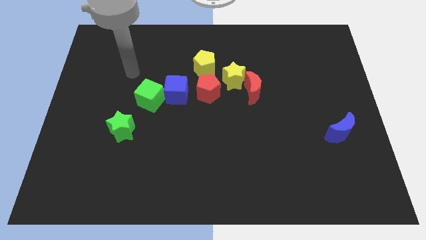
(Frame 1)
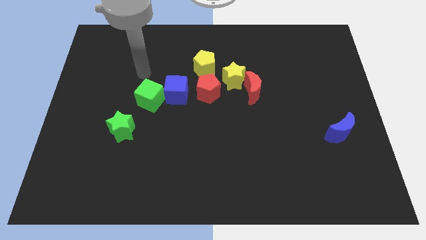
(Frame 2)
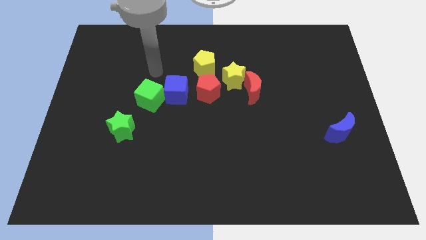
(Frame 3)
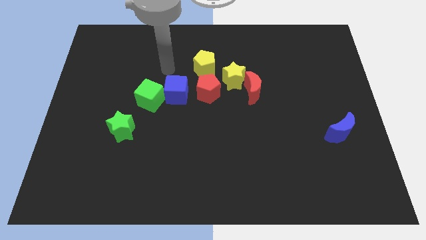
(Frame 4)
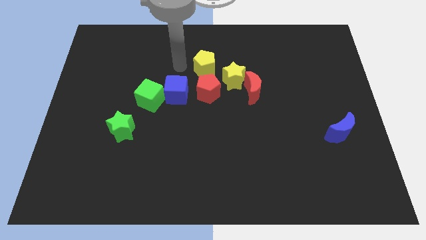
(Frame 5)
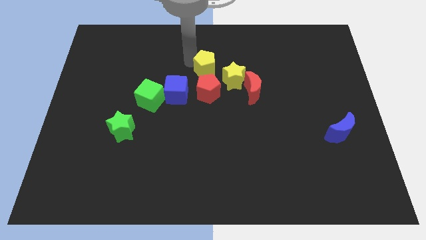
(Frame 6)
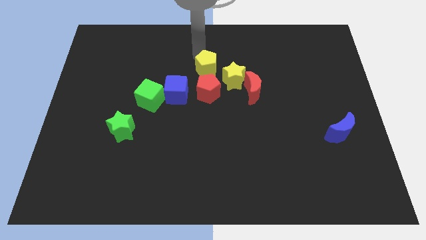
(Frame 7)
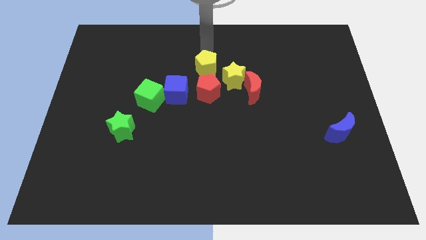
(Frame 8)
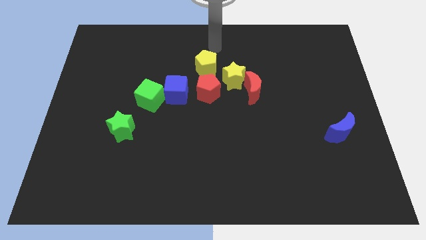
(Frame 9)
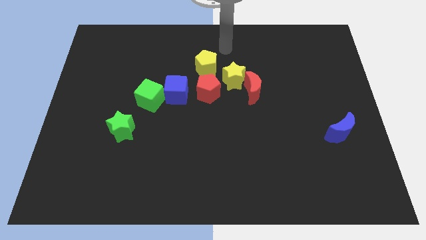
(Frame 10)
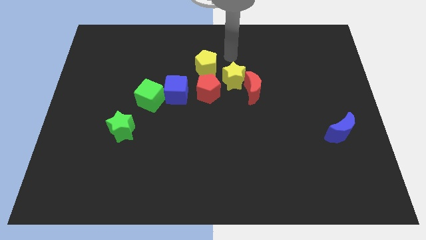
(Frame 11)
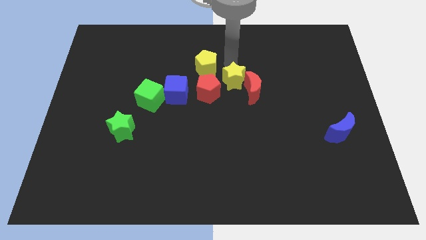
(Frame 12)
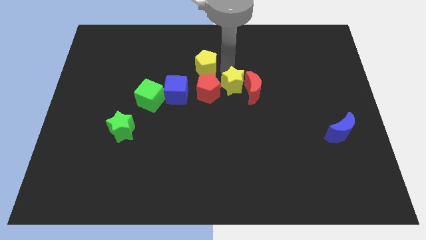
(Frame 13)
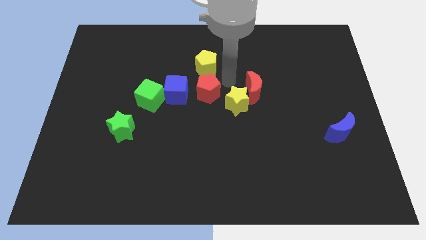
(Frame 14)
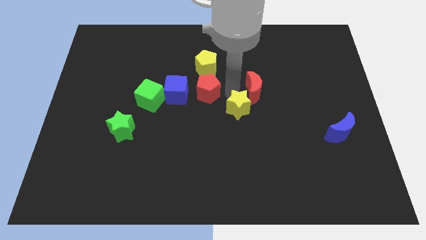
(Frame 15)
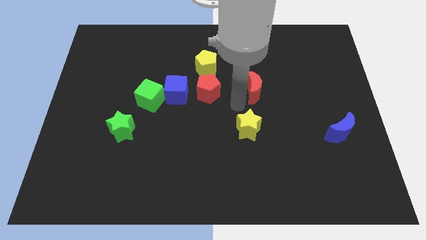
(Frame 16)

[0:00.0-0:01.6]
pull the red moon apart from the yellow star

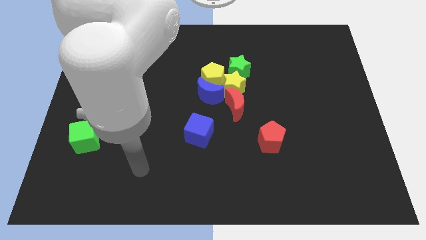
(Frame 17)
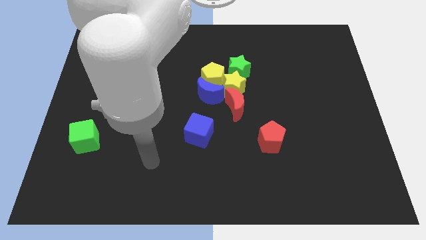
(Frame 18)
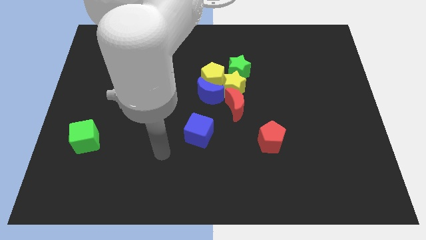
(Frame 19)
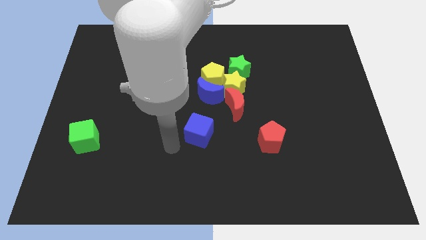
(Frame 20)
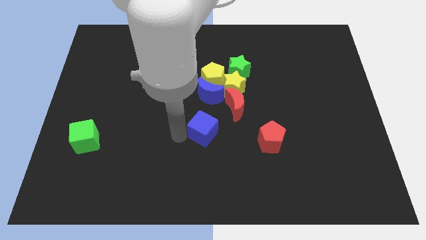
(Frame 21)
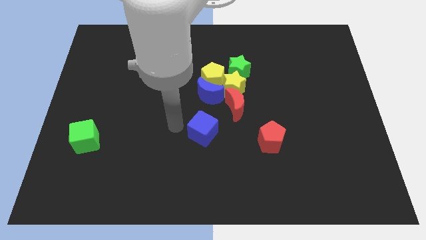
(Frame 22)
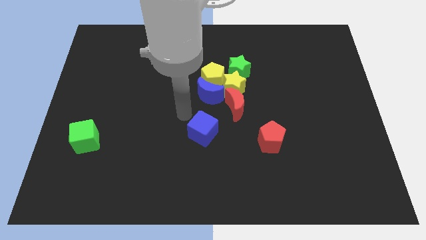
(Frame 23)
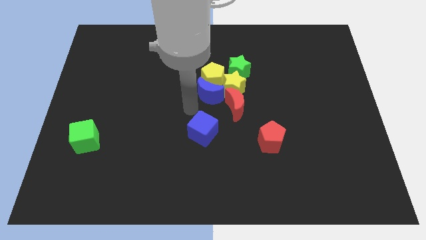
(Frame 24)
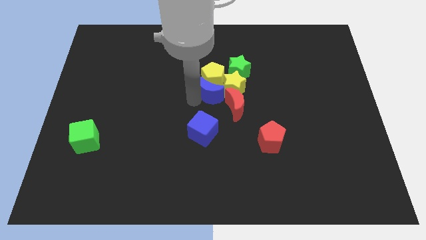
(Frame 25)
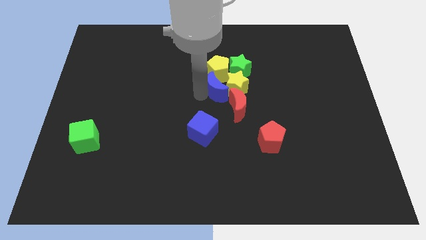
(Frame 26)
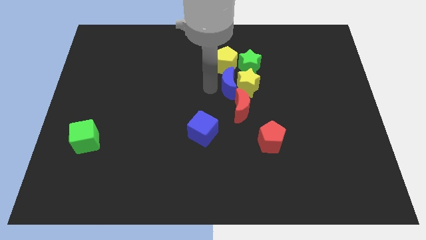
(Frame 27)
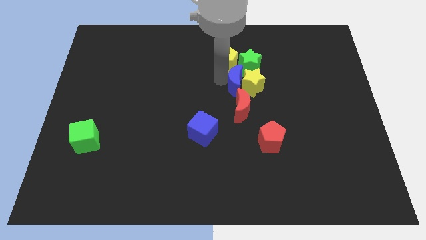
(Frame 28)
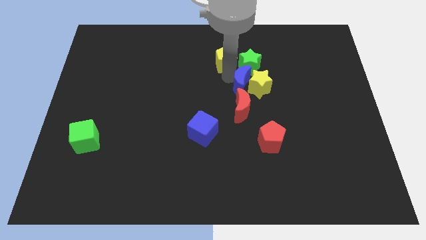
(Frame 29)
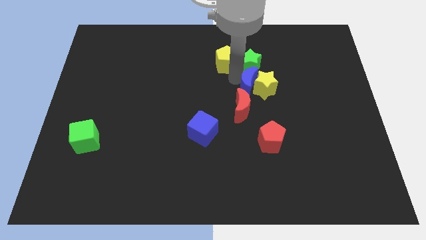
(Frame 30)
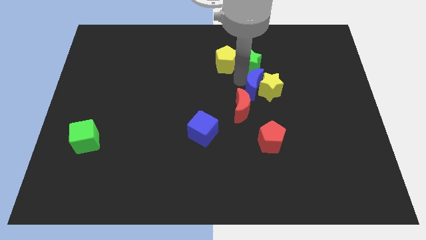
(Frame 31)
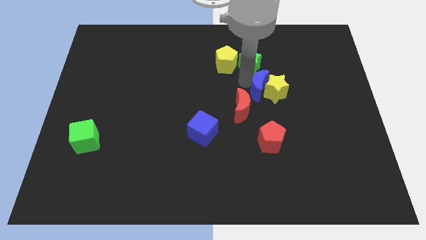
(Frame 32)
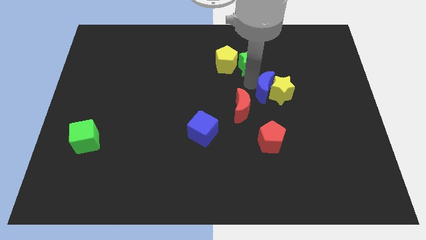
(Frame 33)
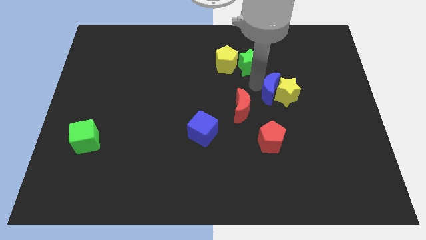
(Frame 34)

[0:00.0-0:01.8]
pull the yellow star apart from the clump

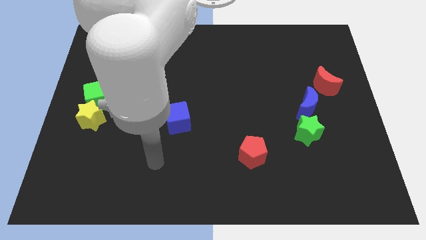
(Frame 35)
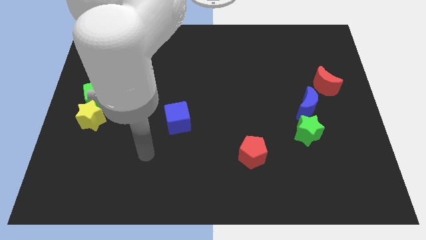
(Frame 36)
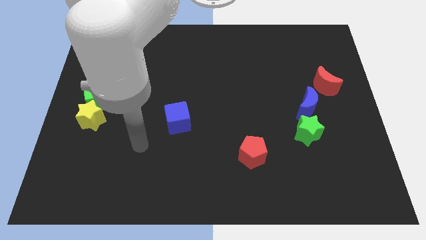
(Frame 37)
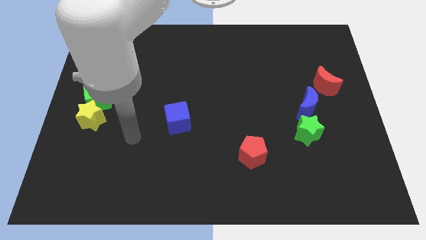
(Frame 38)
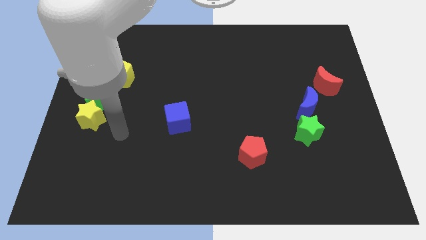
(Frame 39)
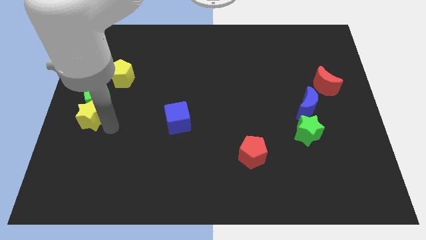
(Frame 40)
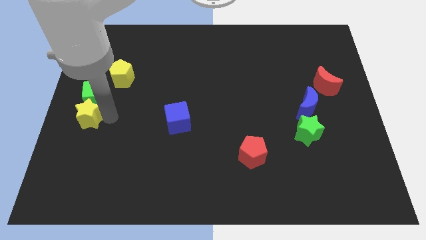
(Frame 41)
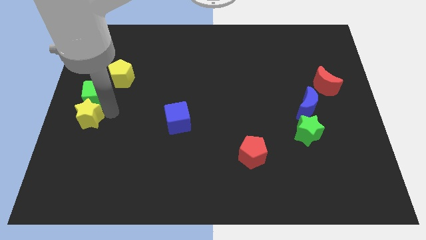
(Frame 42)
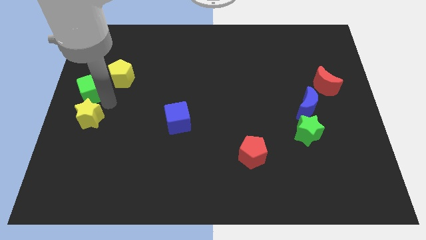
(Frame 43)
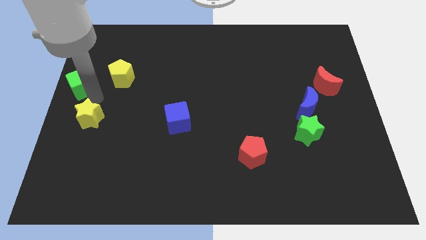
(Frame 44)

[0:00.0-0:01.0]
move the yellow star away from the green cube

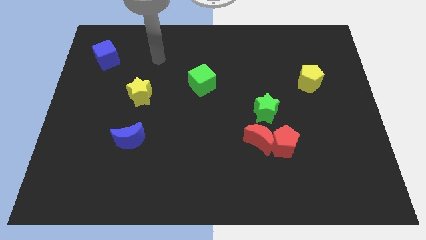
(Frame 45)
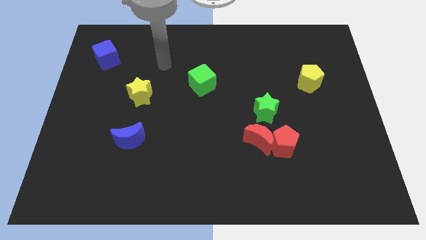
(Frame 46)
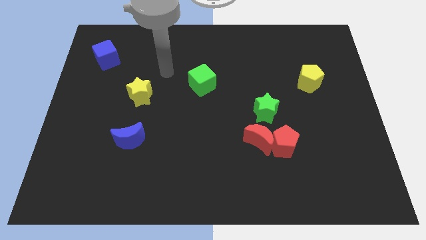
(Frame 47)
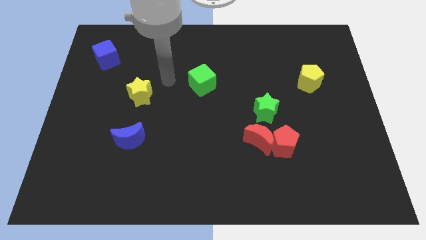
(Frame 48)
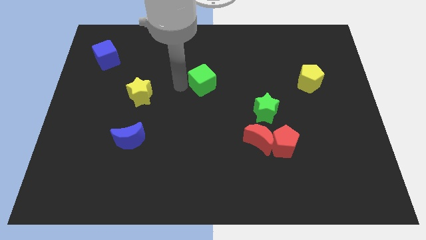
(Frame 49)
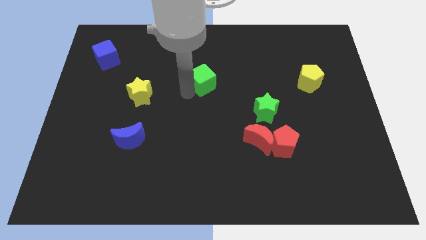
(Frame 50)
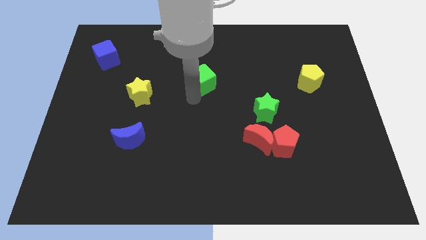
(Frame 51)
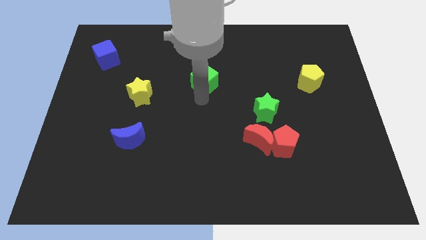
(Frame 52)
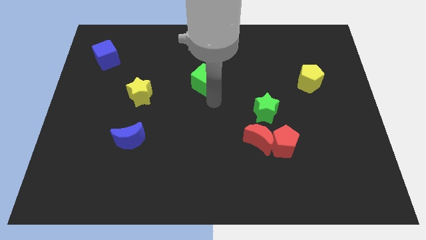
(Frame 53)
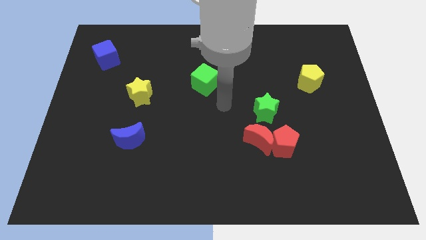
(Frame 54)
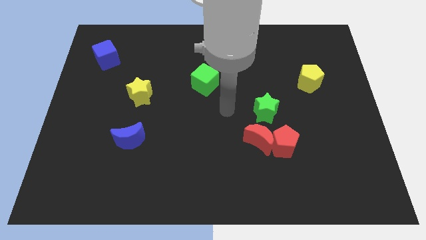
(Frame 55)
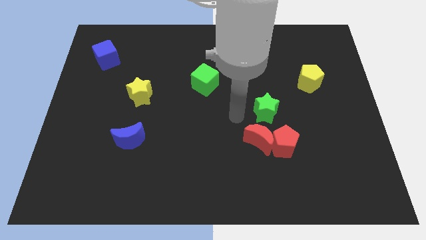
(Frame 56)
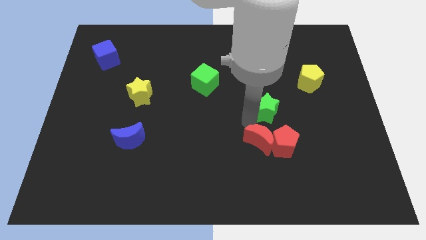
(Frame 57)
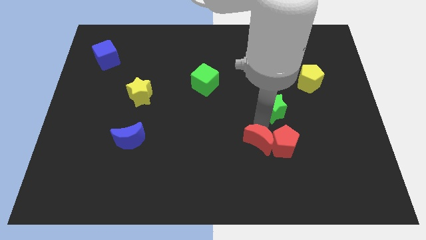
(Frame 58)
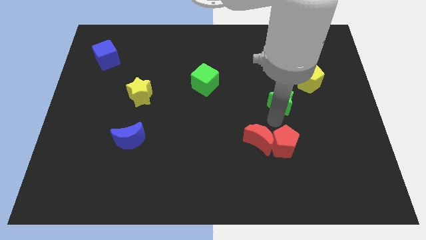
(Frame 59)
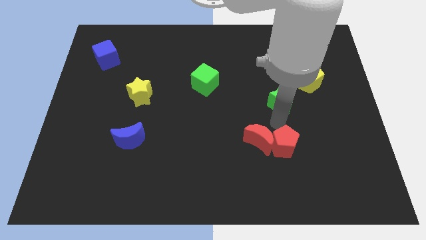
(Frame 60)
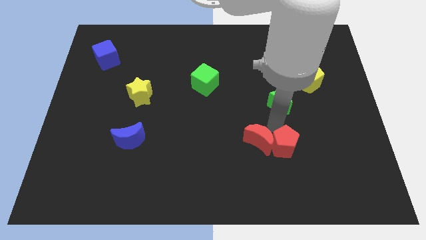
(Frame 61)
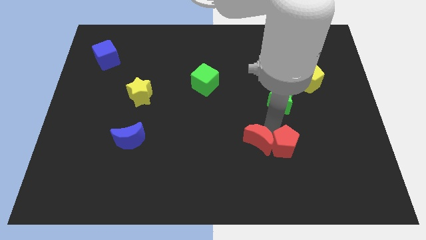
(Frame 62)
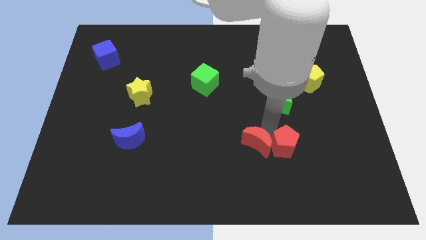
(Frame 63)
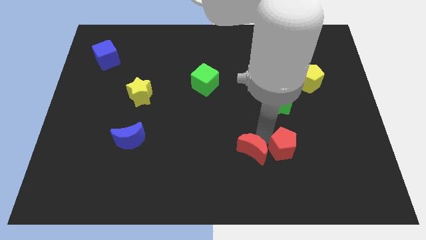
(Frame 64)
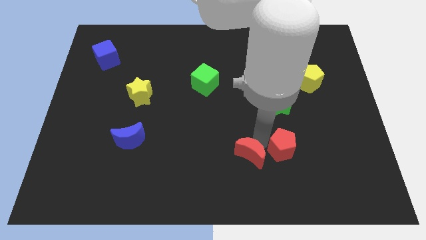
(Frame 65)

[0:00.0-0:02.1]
pull the red moon apart from the red pentagon and green star

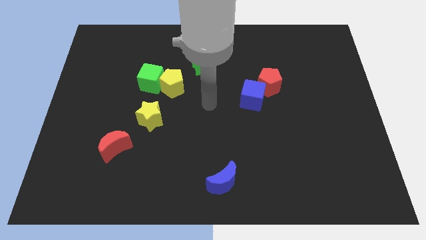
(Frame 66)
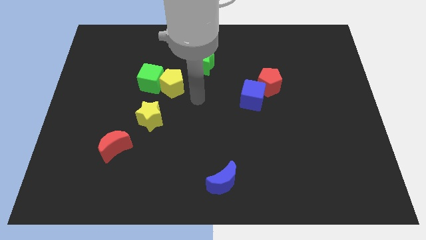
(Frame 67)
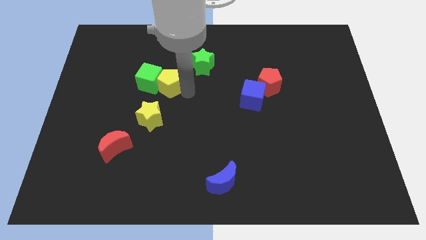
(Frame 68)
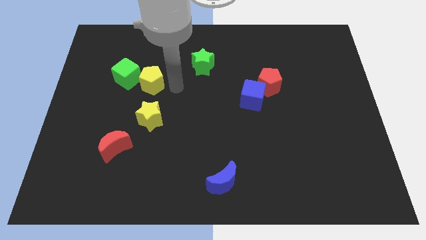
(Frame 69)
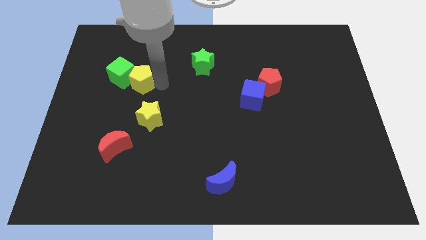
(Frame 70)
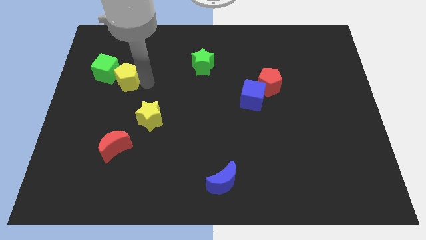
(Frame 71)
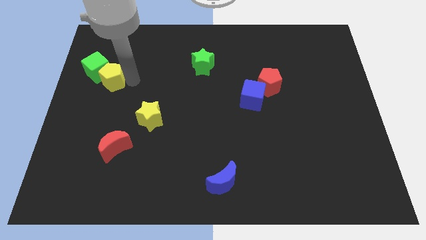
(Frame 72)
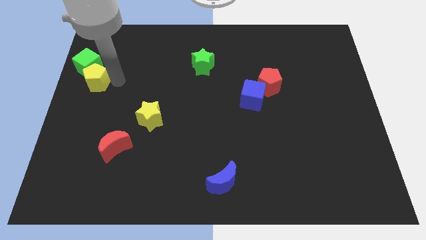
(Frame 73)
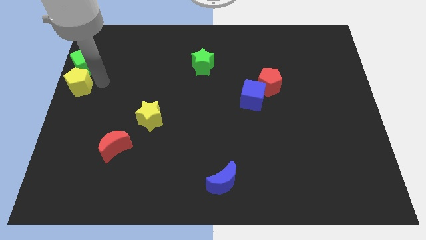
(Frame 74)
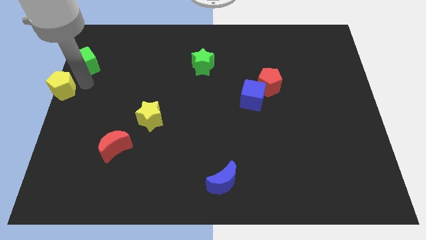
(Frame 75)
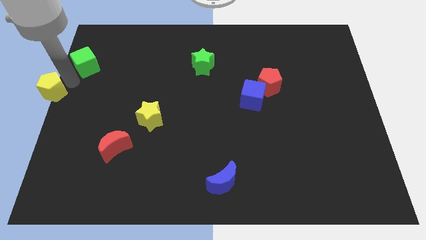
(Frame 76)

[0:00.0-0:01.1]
move the green cube away from the yellow pentagon

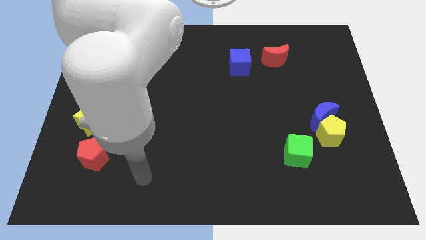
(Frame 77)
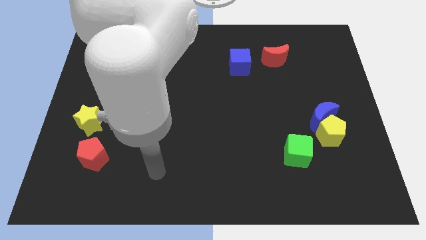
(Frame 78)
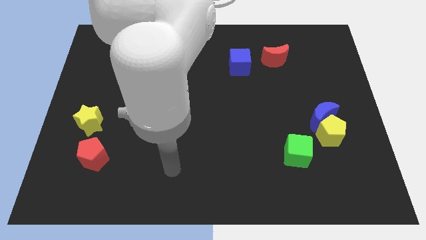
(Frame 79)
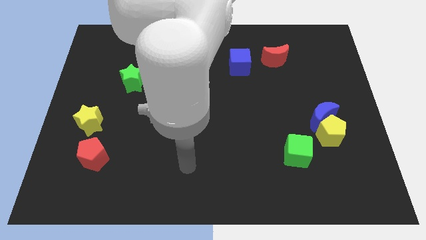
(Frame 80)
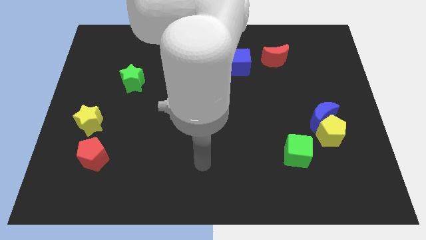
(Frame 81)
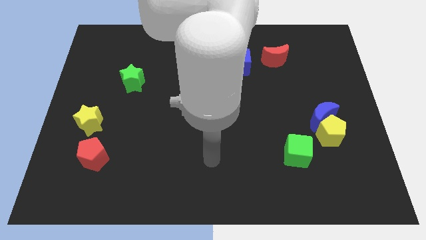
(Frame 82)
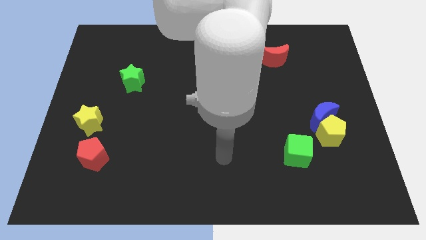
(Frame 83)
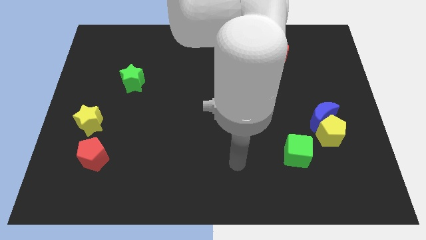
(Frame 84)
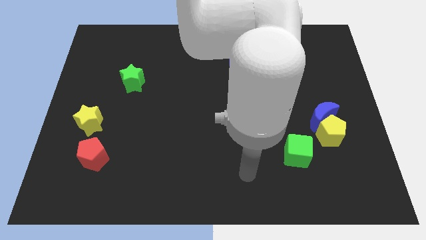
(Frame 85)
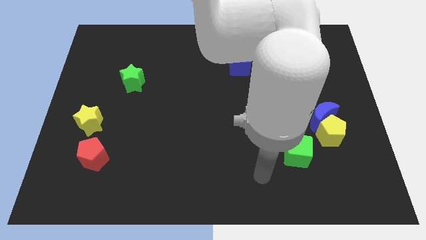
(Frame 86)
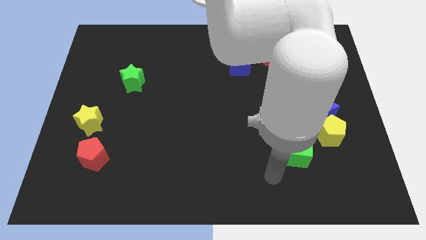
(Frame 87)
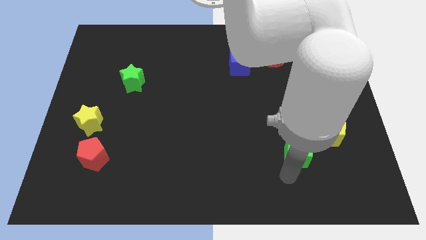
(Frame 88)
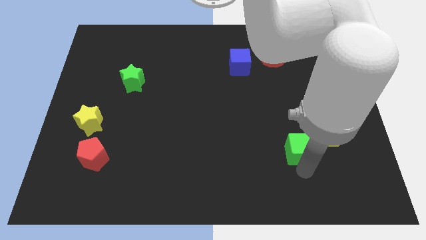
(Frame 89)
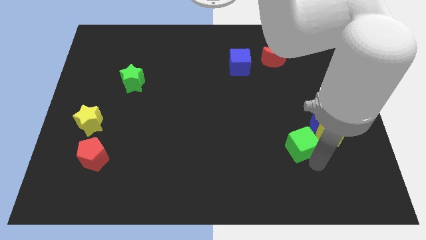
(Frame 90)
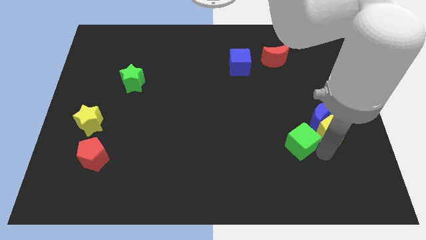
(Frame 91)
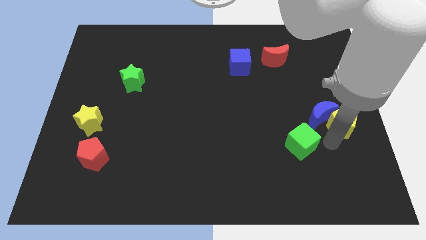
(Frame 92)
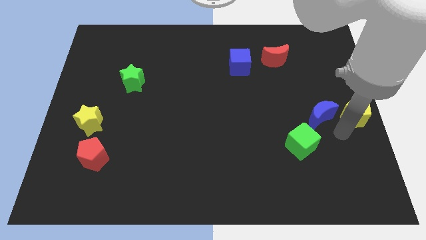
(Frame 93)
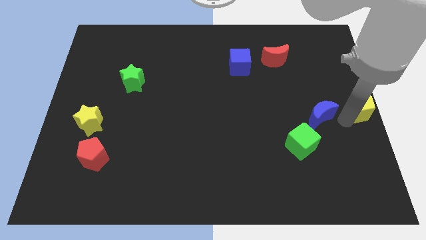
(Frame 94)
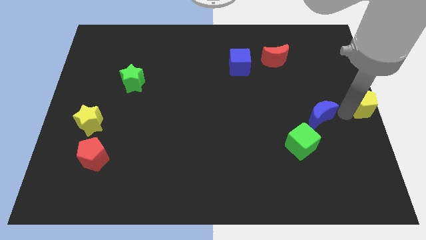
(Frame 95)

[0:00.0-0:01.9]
move the blue moon away from the yellow pentagon
